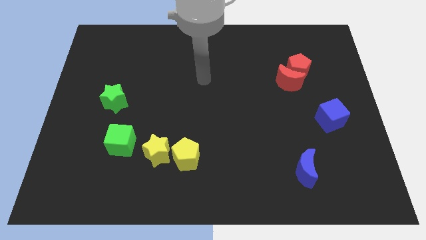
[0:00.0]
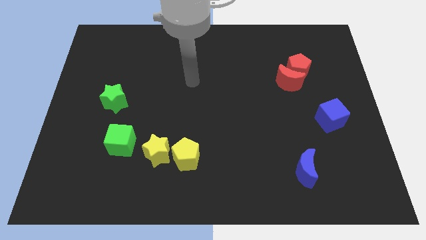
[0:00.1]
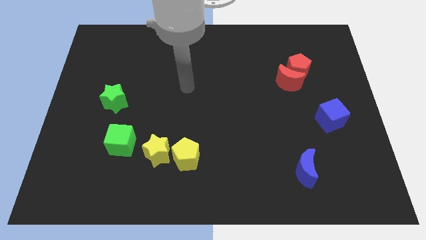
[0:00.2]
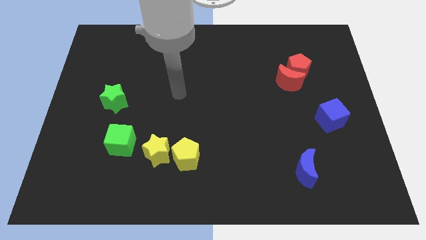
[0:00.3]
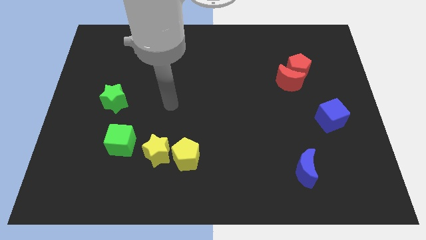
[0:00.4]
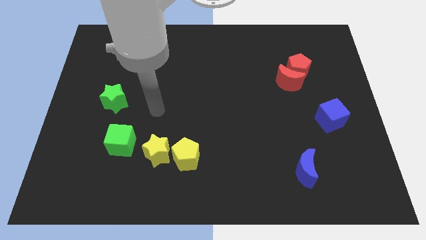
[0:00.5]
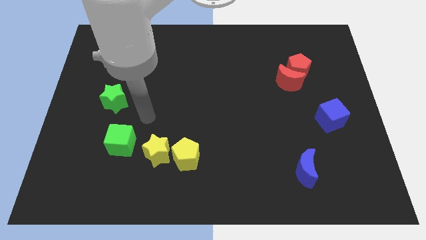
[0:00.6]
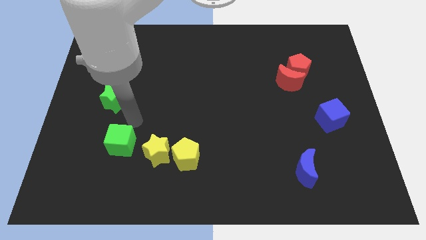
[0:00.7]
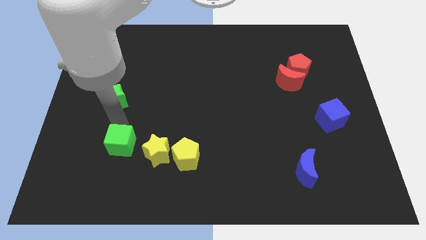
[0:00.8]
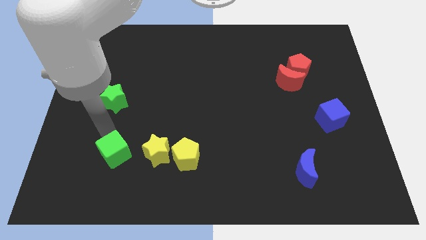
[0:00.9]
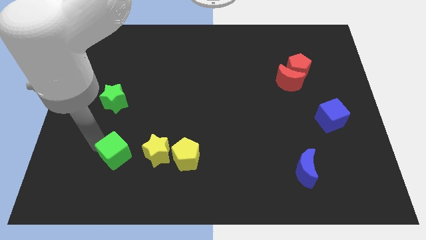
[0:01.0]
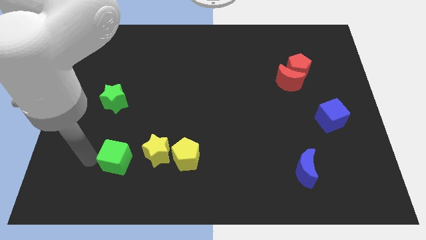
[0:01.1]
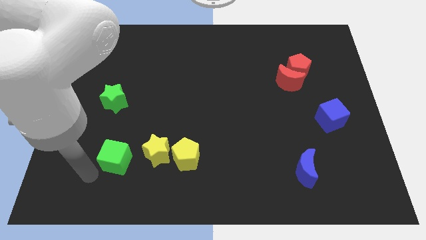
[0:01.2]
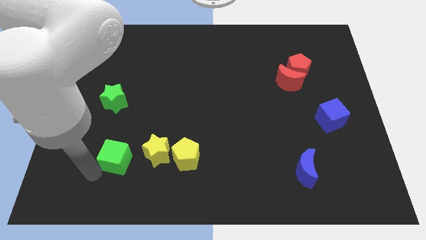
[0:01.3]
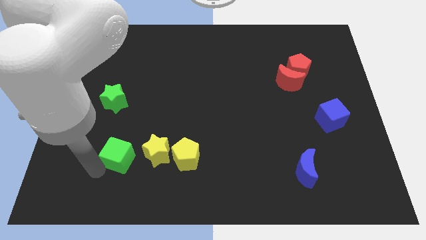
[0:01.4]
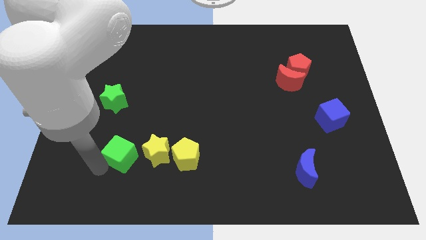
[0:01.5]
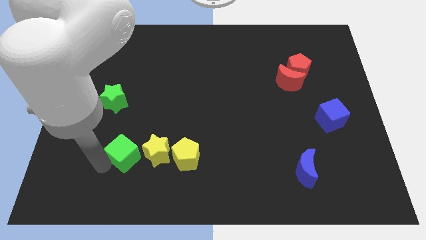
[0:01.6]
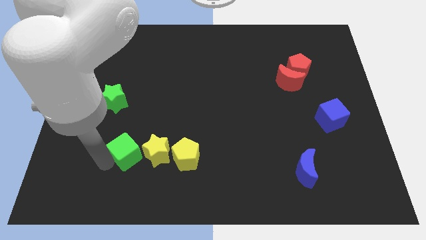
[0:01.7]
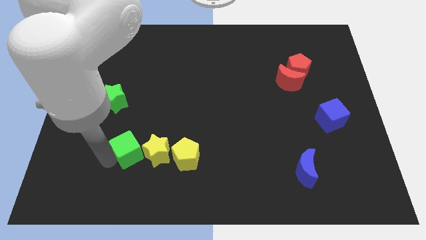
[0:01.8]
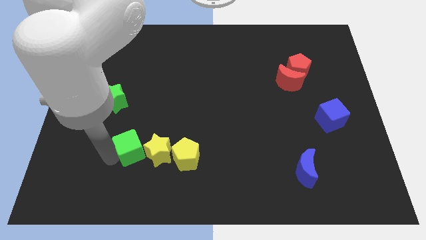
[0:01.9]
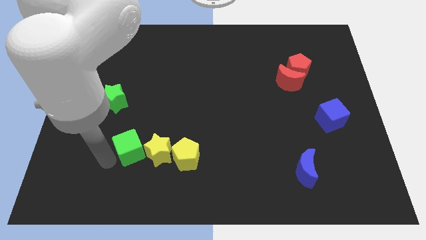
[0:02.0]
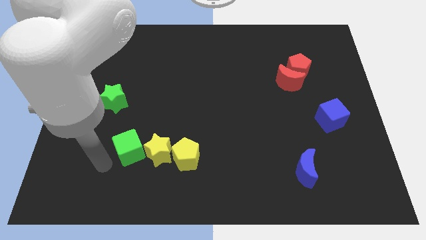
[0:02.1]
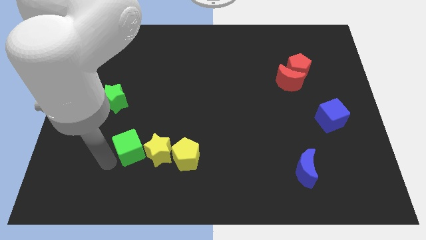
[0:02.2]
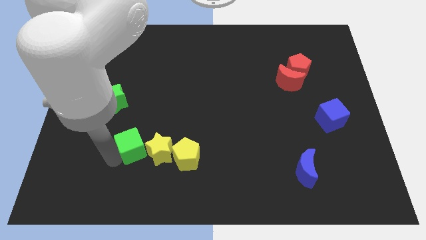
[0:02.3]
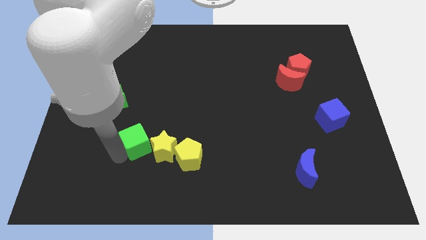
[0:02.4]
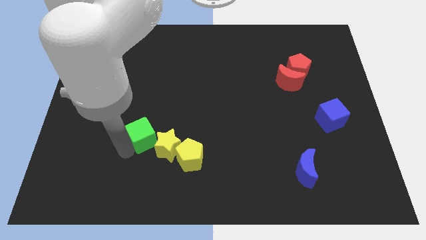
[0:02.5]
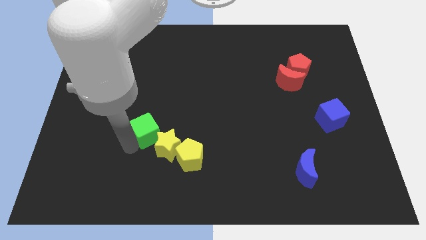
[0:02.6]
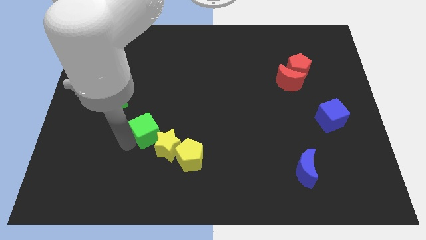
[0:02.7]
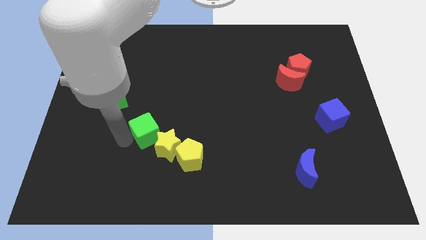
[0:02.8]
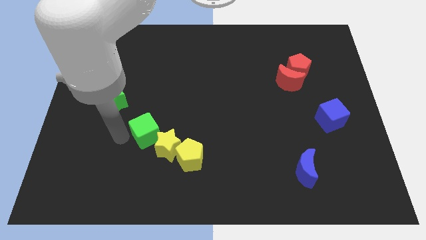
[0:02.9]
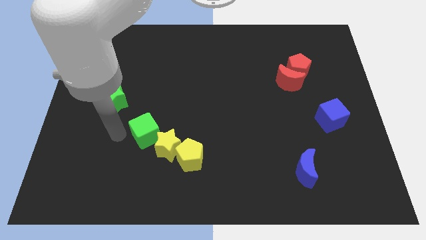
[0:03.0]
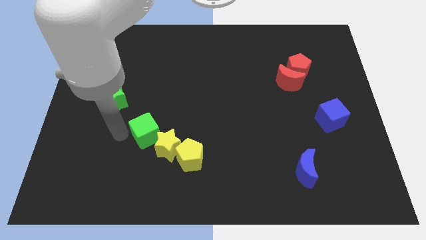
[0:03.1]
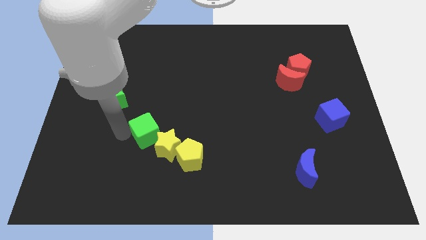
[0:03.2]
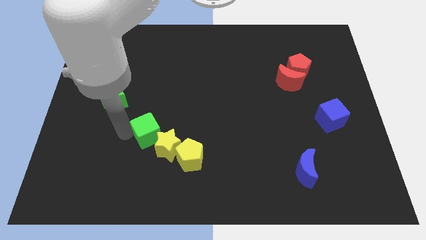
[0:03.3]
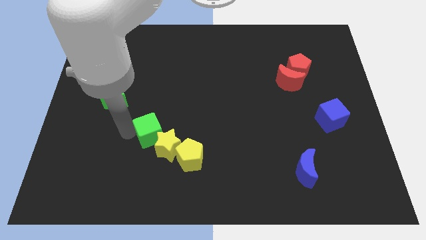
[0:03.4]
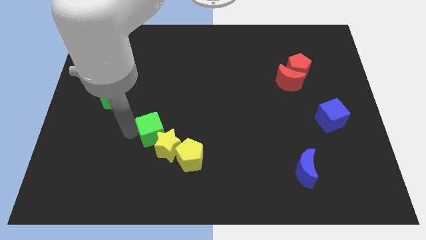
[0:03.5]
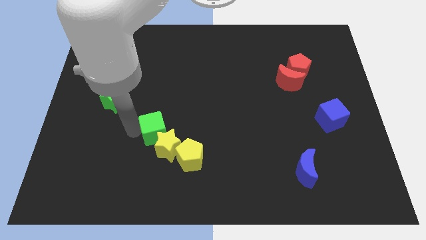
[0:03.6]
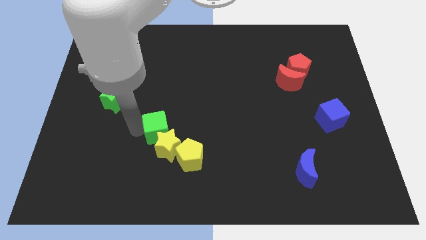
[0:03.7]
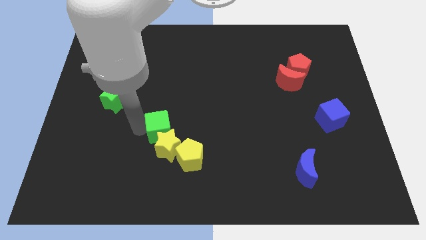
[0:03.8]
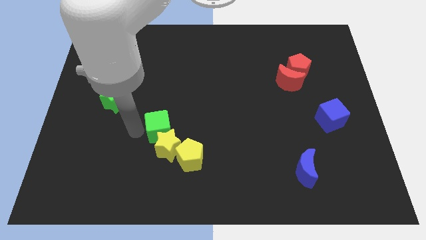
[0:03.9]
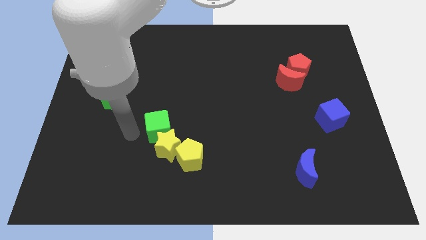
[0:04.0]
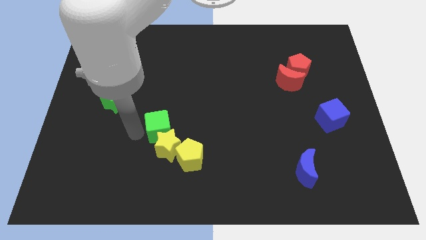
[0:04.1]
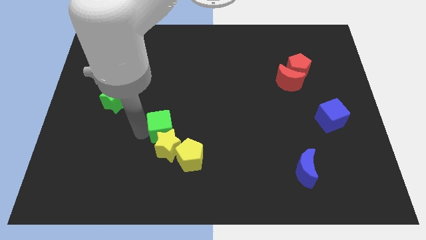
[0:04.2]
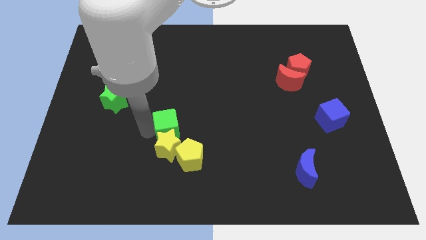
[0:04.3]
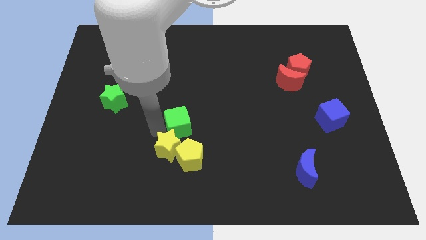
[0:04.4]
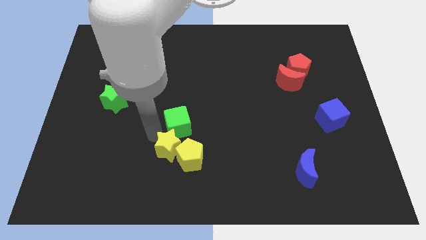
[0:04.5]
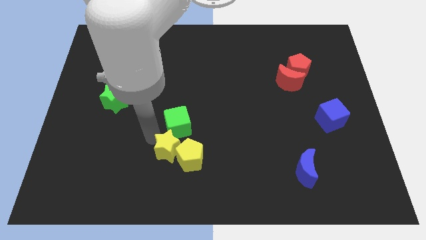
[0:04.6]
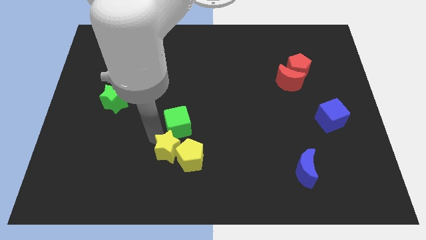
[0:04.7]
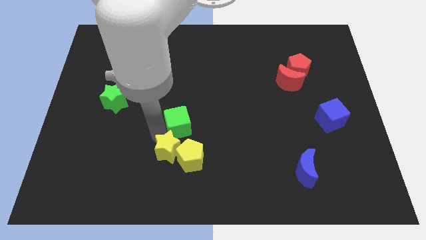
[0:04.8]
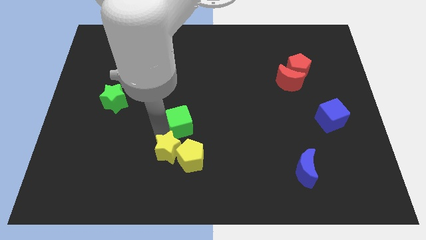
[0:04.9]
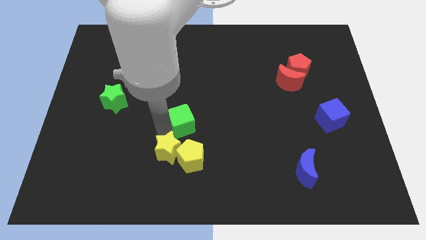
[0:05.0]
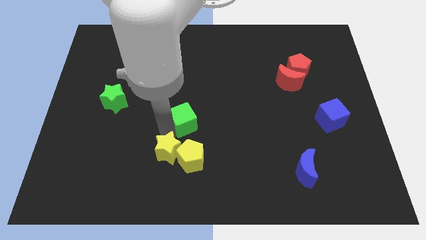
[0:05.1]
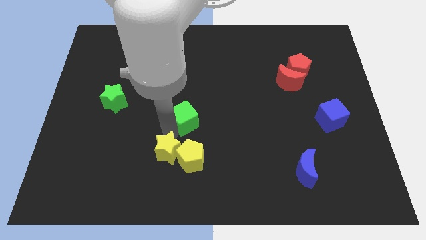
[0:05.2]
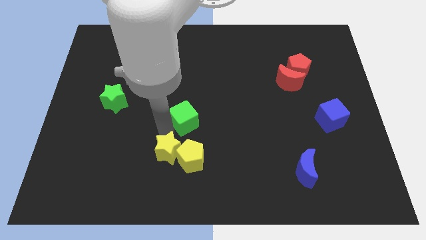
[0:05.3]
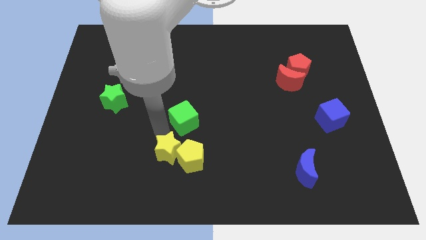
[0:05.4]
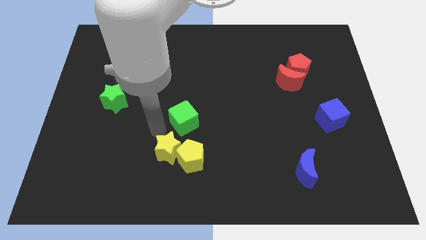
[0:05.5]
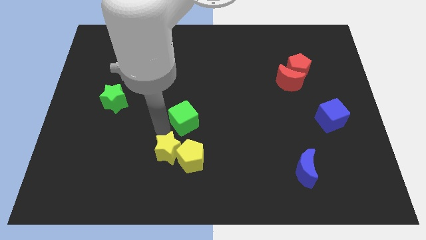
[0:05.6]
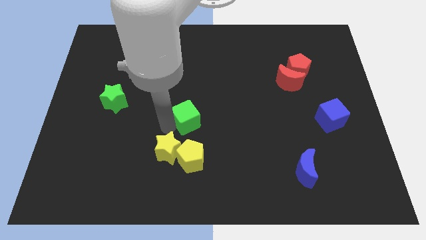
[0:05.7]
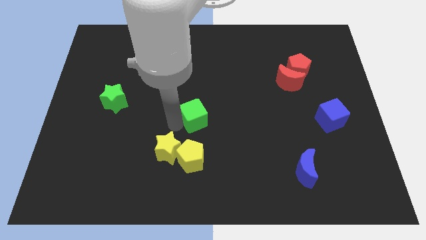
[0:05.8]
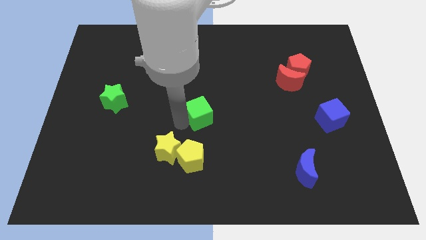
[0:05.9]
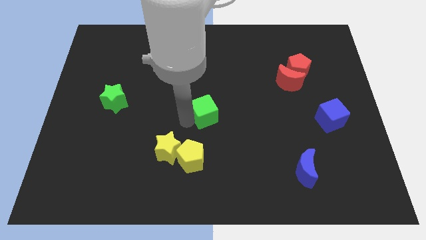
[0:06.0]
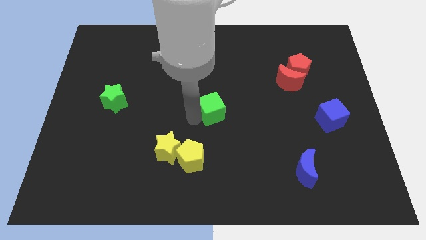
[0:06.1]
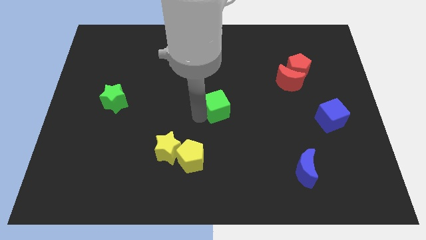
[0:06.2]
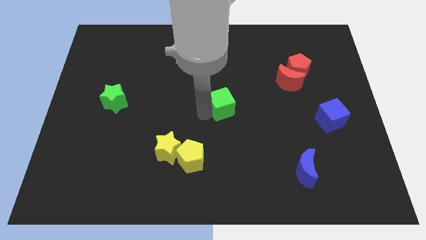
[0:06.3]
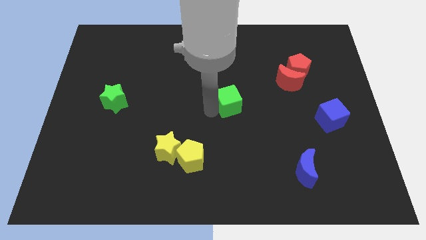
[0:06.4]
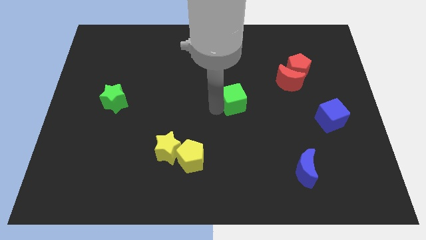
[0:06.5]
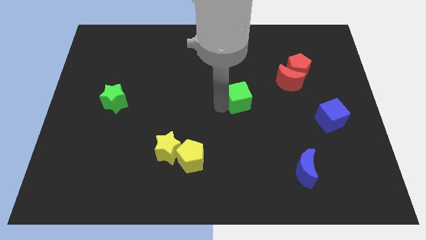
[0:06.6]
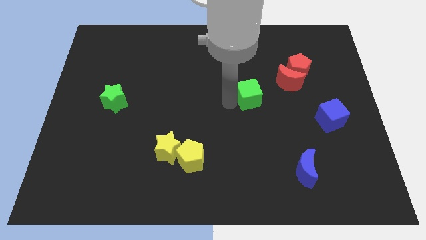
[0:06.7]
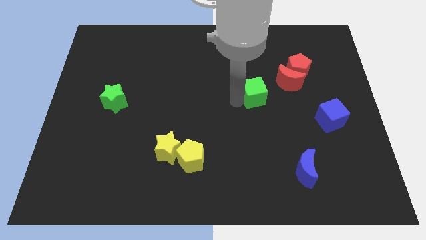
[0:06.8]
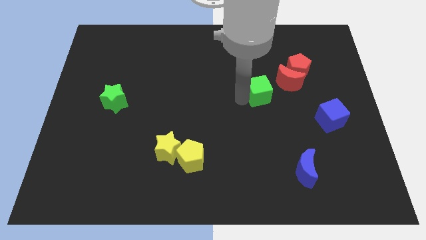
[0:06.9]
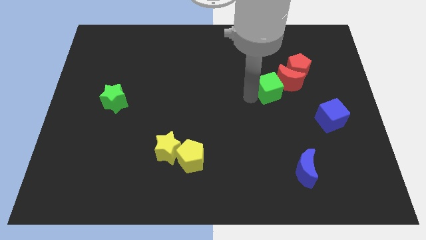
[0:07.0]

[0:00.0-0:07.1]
move the green cube to the red moon

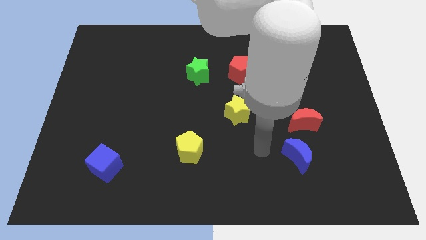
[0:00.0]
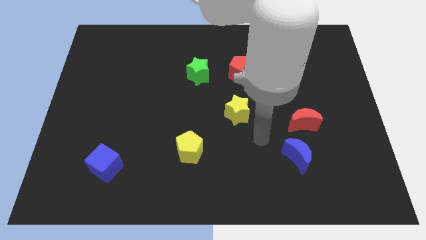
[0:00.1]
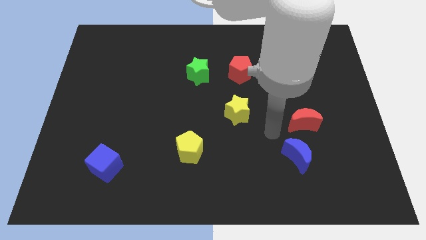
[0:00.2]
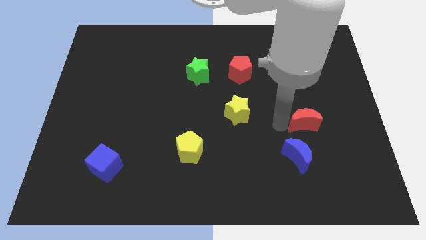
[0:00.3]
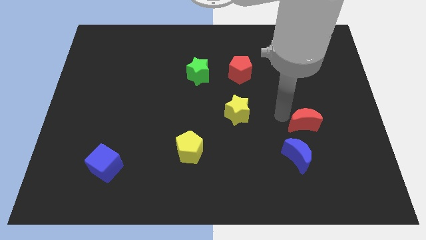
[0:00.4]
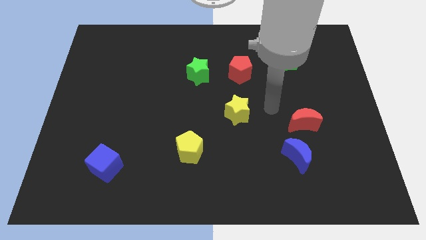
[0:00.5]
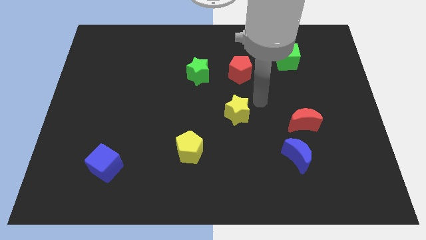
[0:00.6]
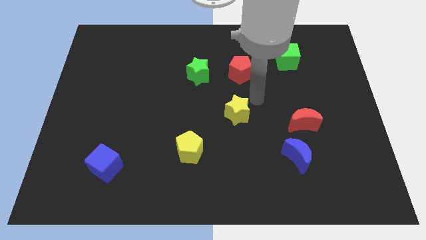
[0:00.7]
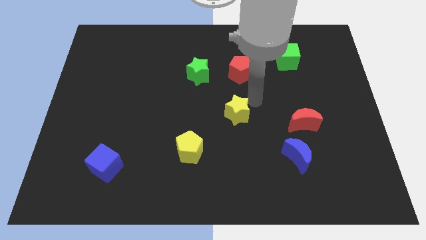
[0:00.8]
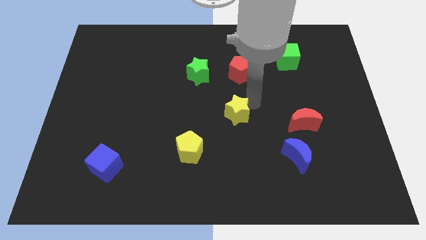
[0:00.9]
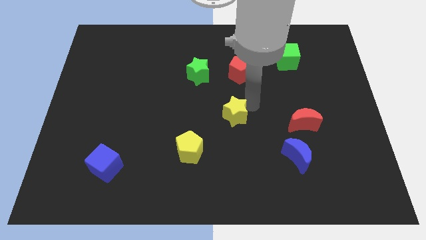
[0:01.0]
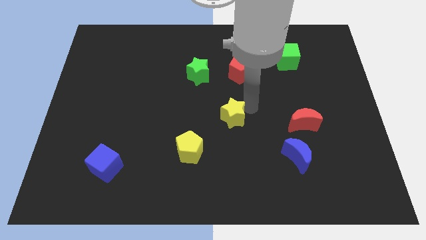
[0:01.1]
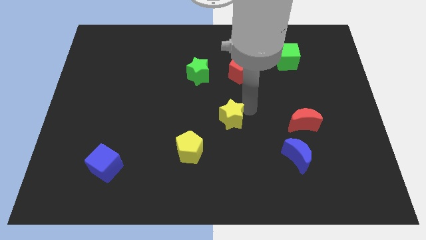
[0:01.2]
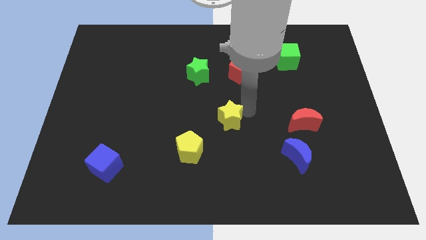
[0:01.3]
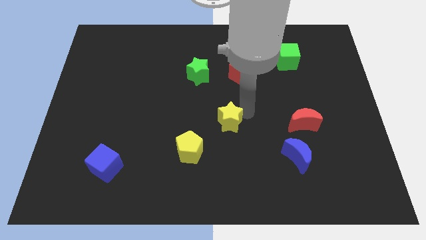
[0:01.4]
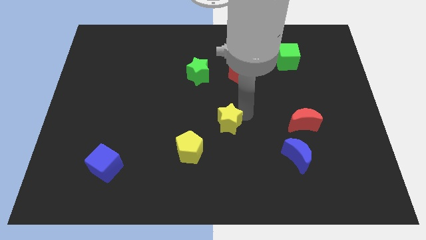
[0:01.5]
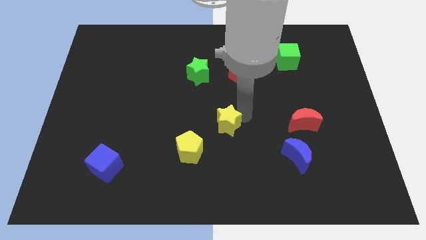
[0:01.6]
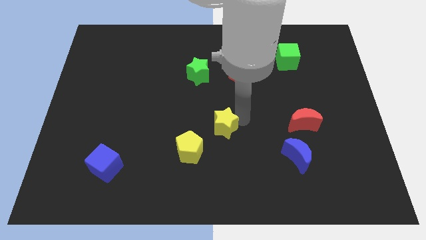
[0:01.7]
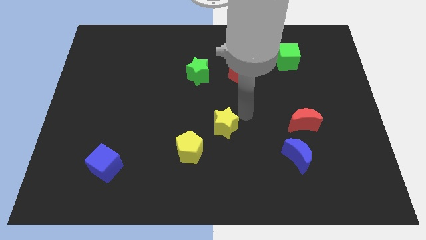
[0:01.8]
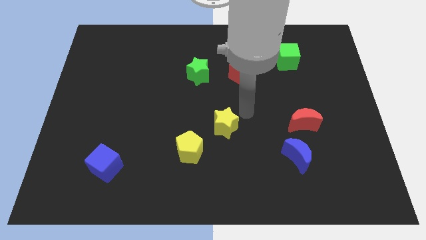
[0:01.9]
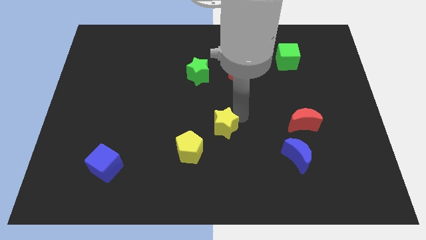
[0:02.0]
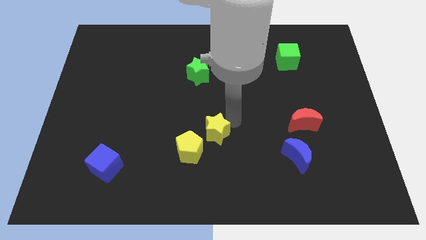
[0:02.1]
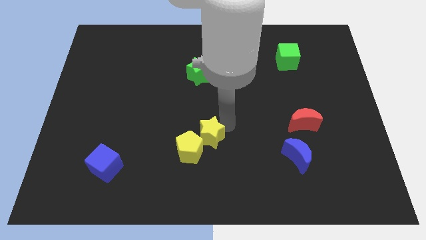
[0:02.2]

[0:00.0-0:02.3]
put the yellow star next to the yellow pentagon
